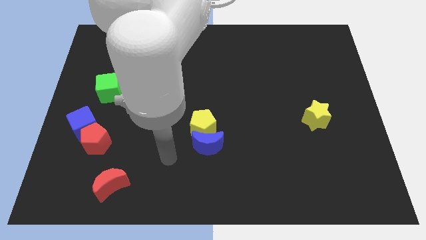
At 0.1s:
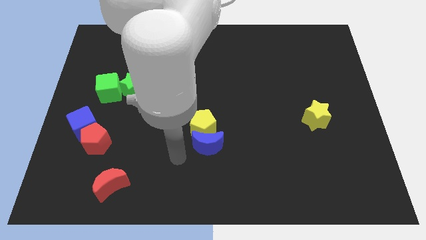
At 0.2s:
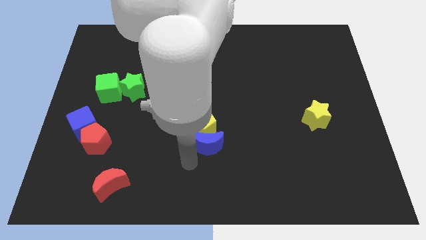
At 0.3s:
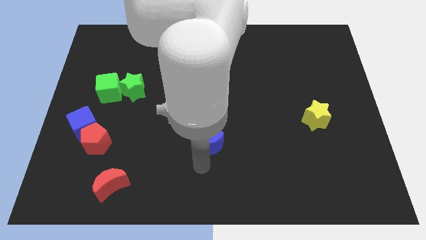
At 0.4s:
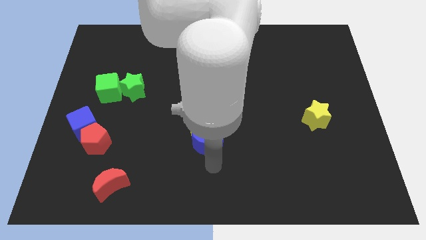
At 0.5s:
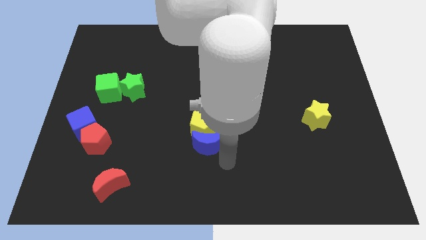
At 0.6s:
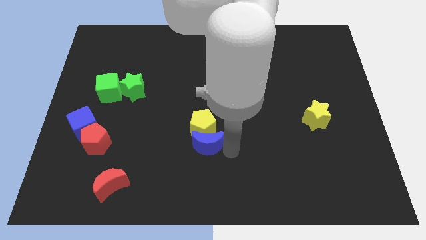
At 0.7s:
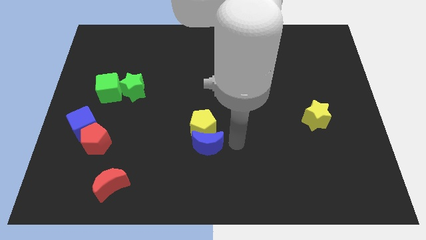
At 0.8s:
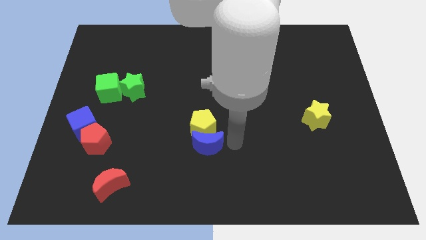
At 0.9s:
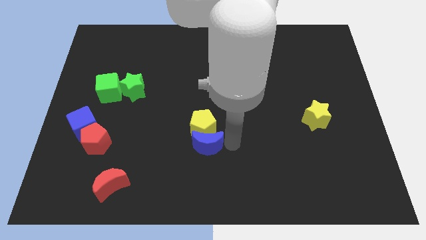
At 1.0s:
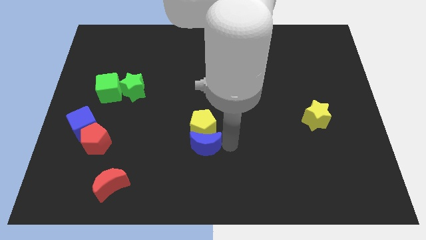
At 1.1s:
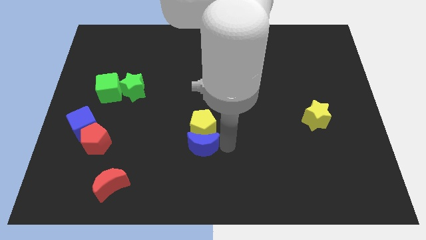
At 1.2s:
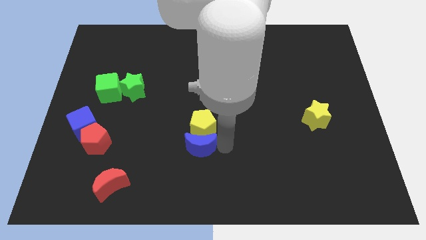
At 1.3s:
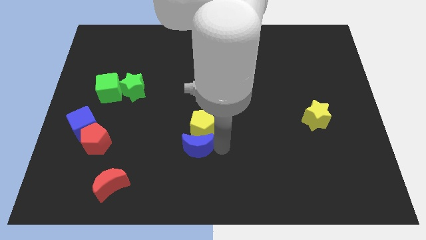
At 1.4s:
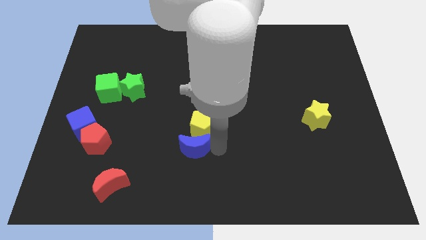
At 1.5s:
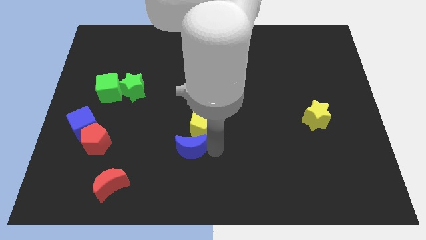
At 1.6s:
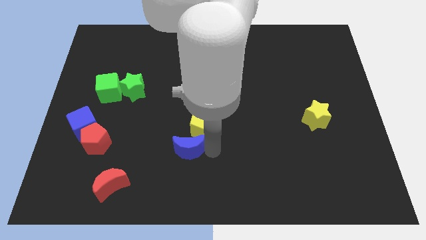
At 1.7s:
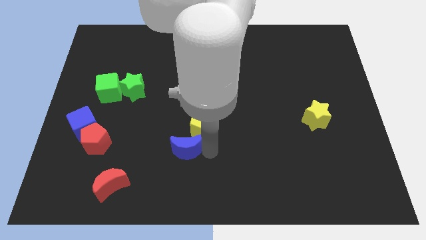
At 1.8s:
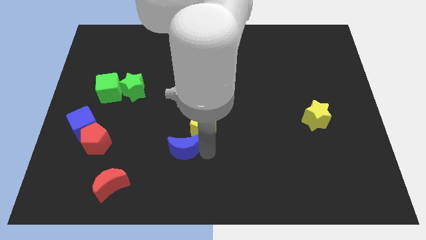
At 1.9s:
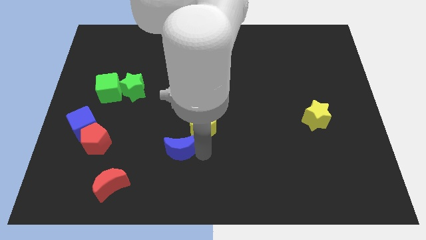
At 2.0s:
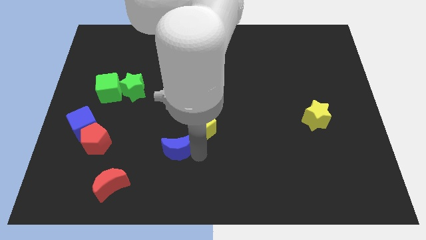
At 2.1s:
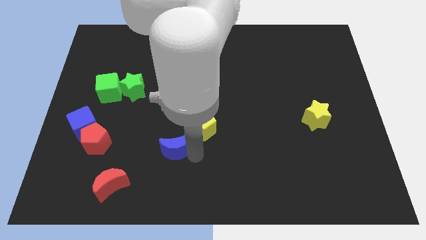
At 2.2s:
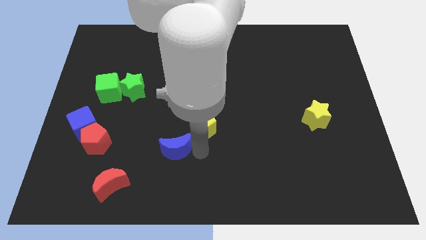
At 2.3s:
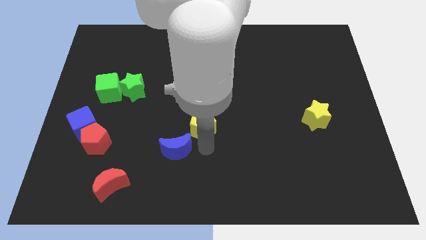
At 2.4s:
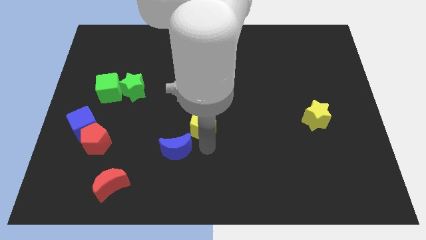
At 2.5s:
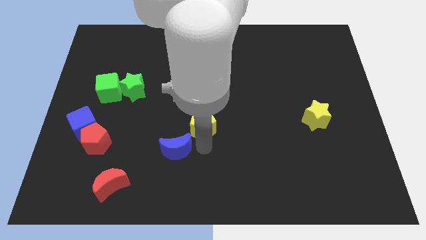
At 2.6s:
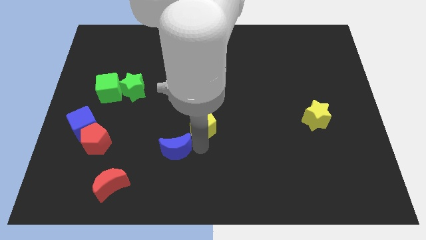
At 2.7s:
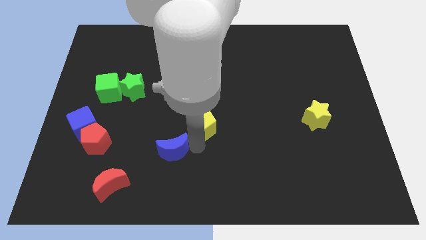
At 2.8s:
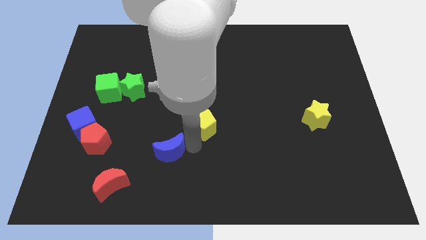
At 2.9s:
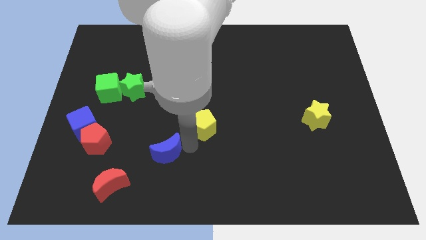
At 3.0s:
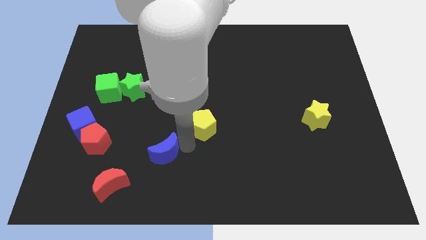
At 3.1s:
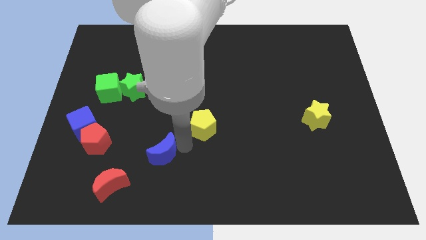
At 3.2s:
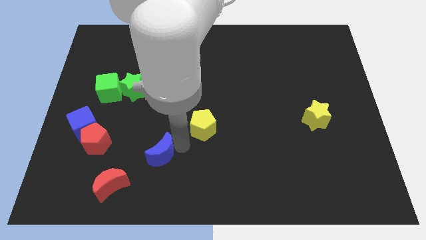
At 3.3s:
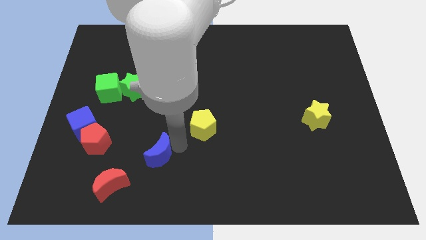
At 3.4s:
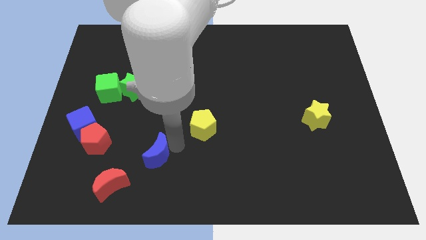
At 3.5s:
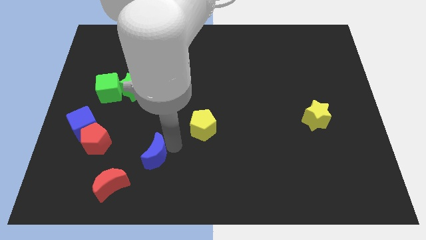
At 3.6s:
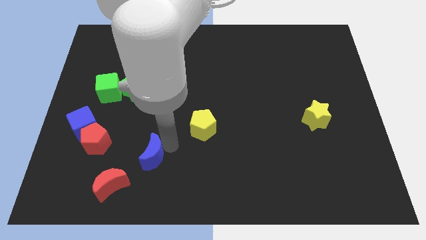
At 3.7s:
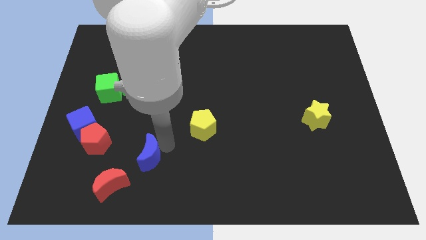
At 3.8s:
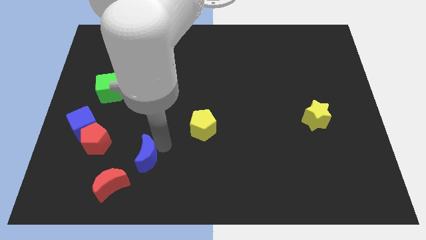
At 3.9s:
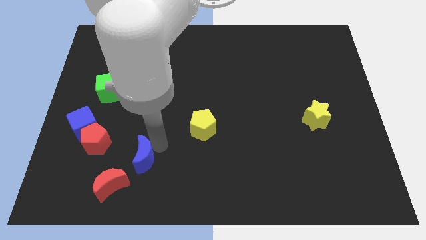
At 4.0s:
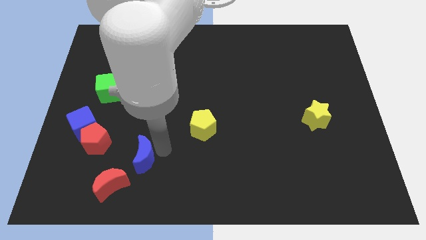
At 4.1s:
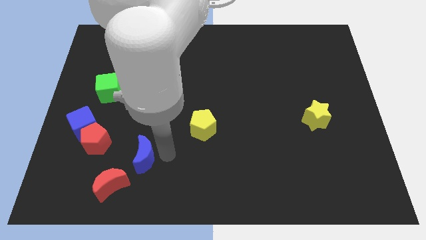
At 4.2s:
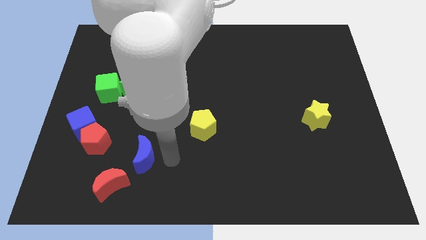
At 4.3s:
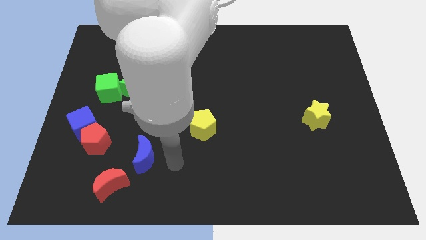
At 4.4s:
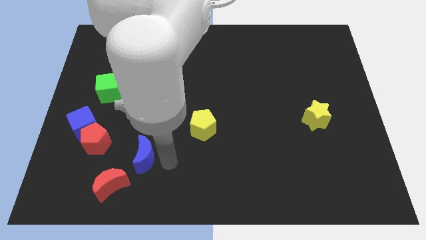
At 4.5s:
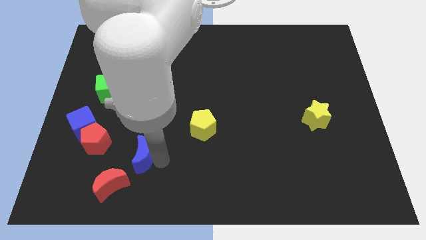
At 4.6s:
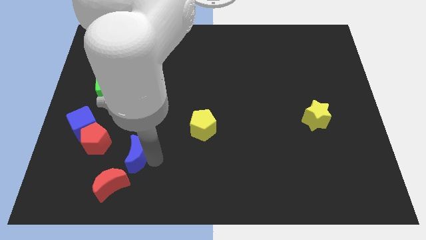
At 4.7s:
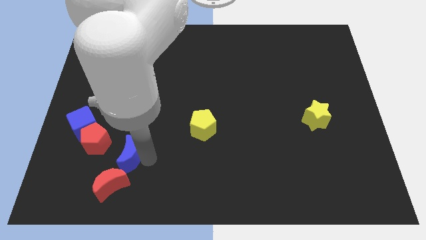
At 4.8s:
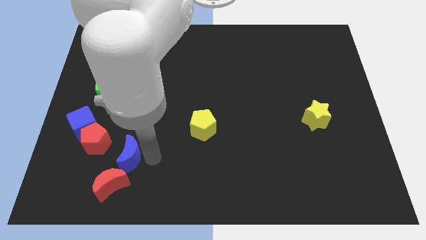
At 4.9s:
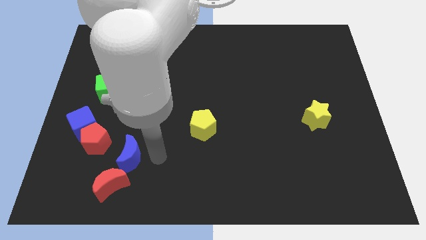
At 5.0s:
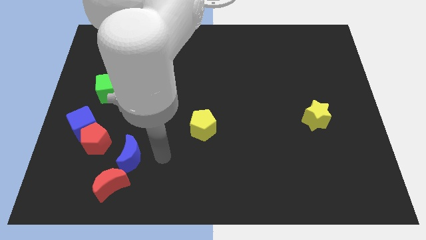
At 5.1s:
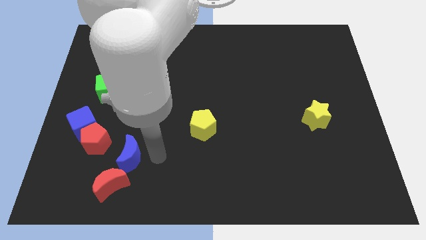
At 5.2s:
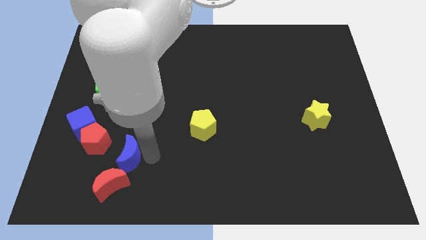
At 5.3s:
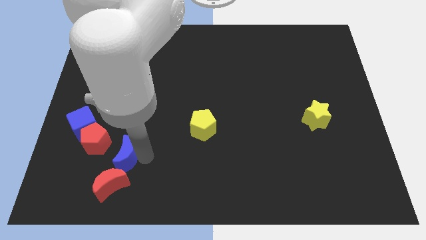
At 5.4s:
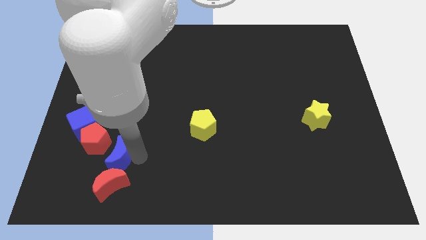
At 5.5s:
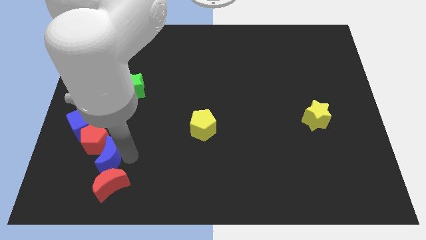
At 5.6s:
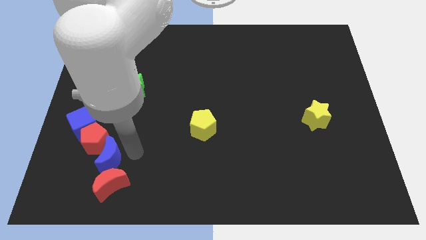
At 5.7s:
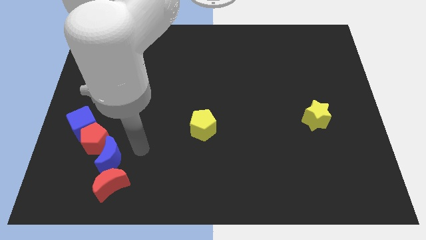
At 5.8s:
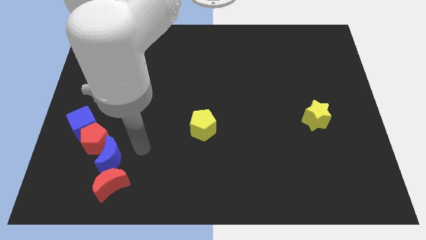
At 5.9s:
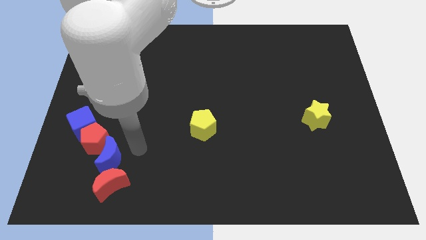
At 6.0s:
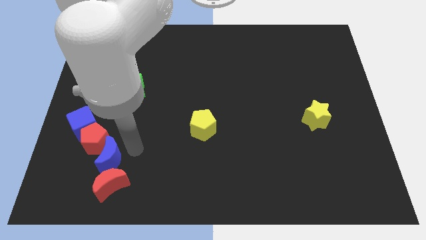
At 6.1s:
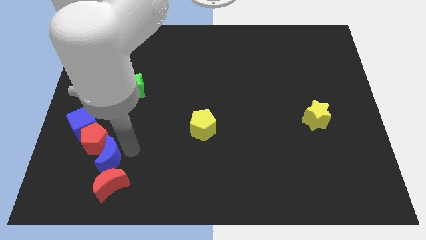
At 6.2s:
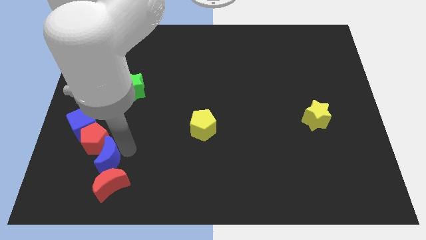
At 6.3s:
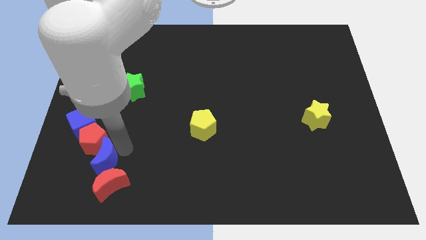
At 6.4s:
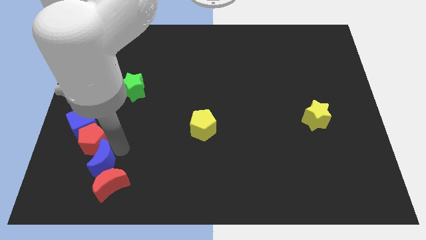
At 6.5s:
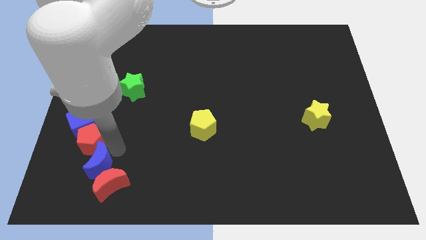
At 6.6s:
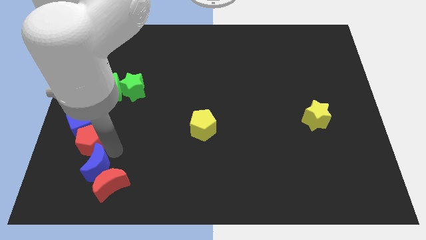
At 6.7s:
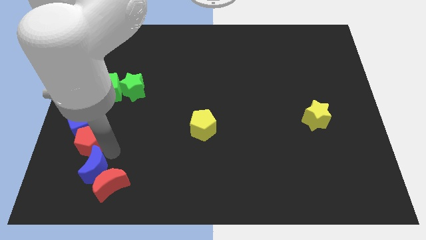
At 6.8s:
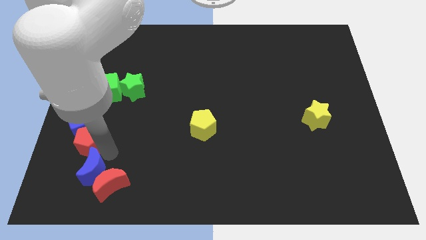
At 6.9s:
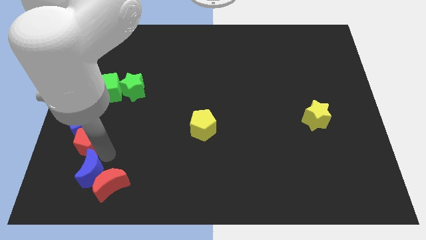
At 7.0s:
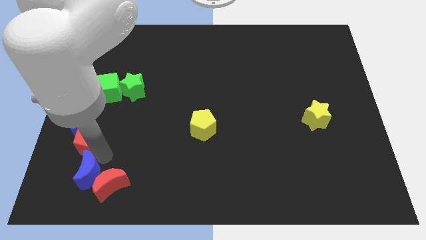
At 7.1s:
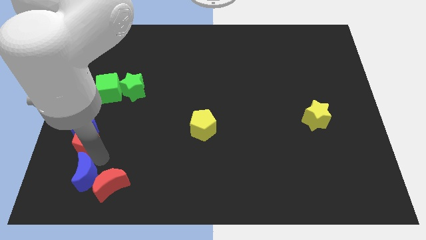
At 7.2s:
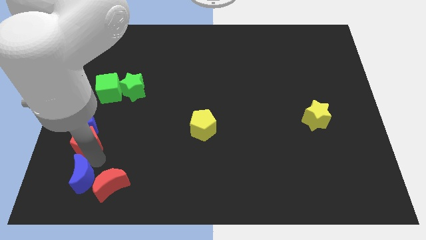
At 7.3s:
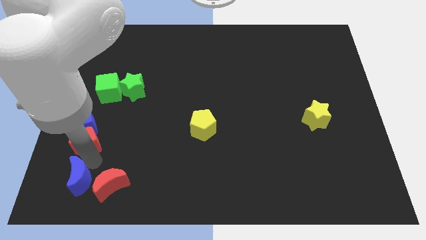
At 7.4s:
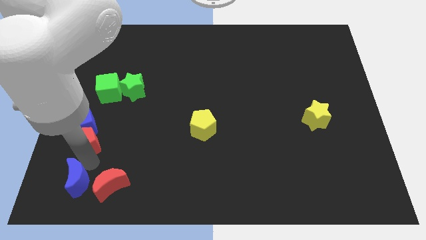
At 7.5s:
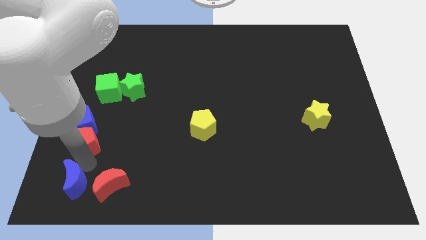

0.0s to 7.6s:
move the blue moon to the lower left corner
